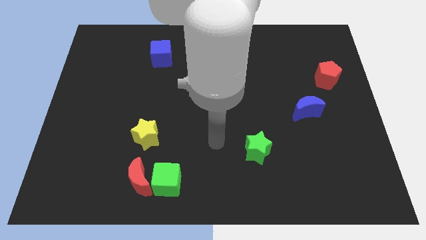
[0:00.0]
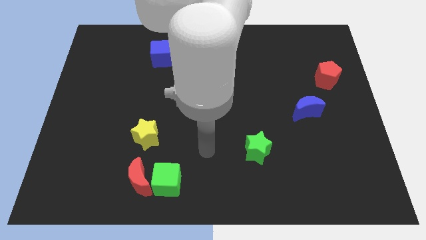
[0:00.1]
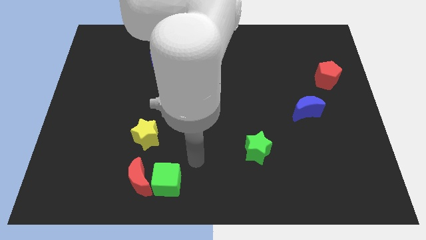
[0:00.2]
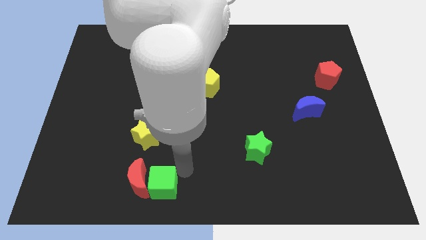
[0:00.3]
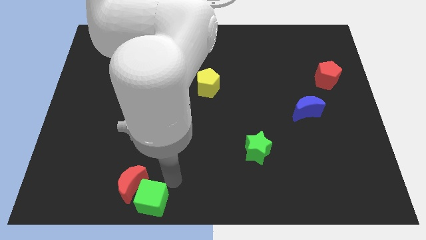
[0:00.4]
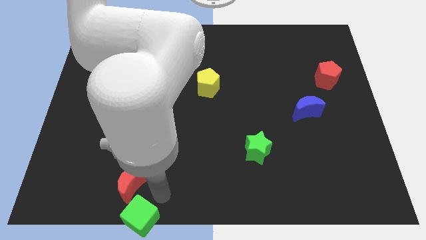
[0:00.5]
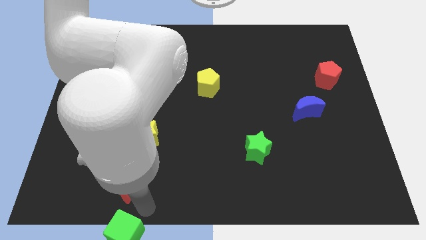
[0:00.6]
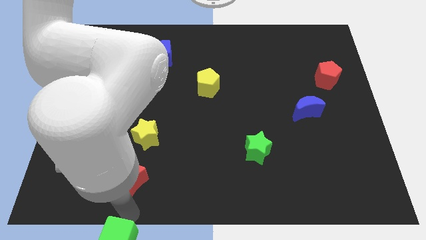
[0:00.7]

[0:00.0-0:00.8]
move the red moon away from the green cube

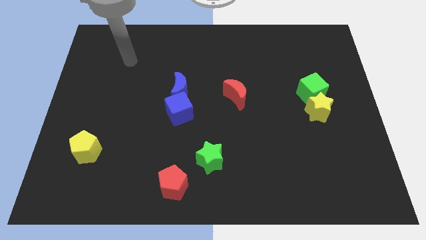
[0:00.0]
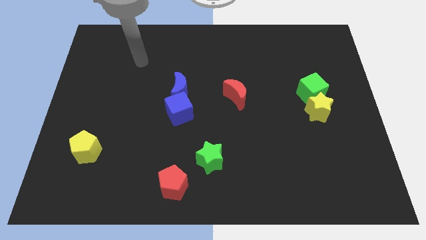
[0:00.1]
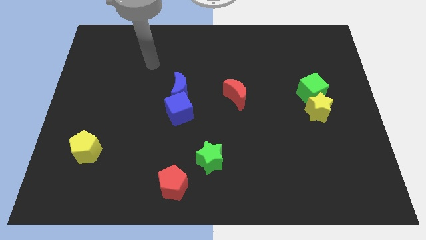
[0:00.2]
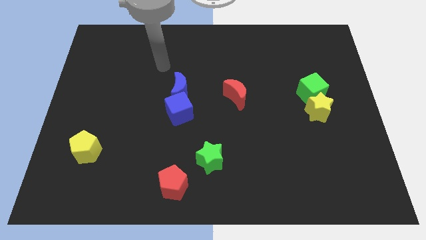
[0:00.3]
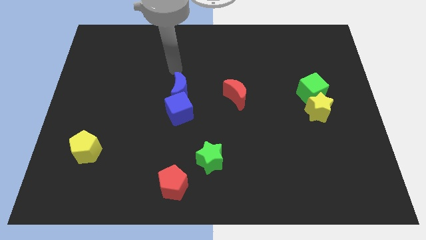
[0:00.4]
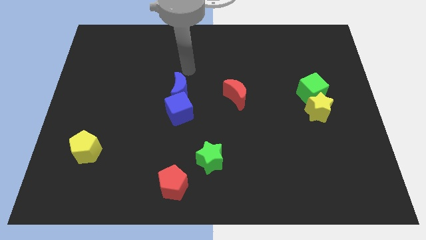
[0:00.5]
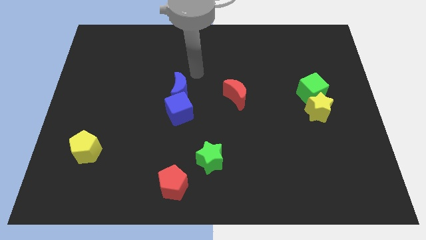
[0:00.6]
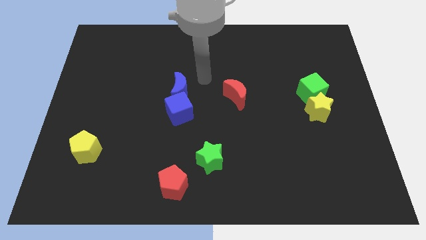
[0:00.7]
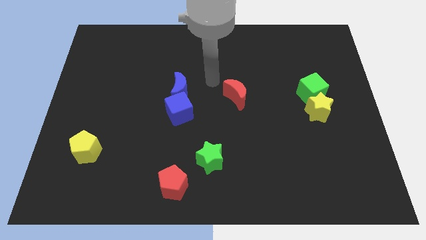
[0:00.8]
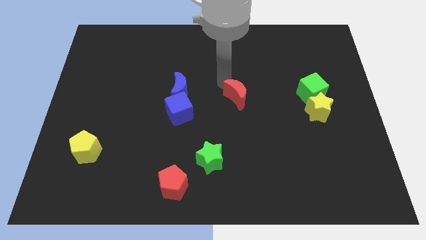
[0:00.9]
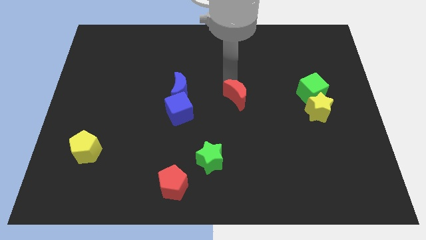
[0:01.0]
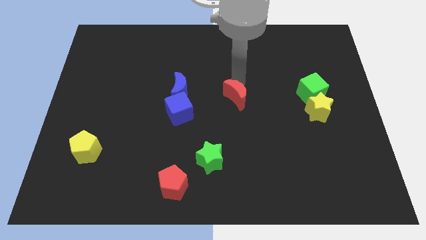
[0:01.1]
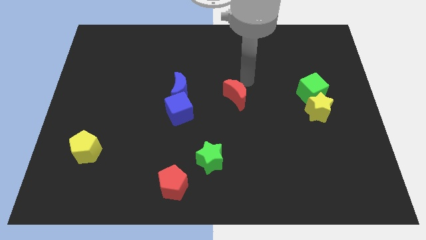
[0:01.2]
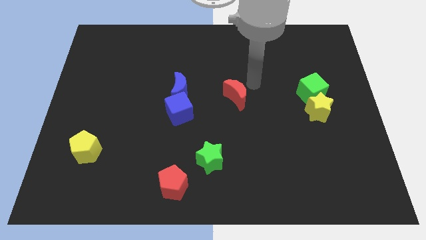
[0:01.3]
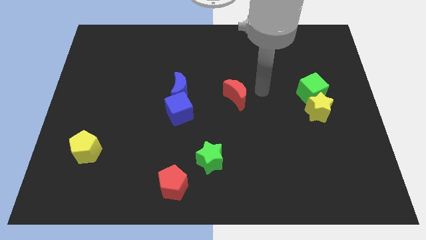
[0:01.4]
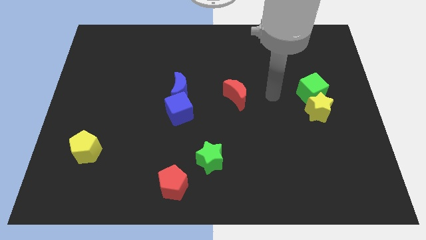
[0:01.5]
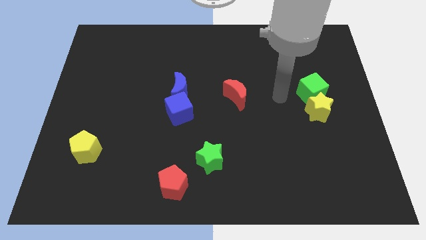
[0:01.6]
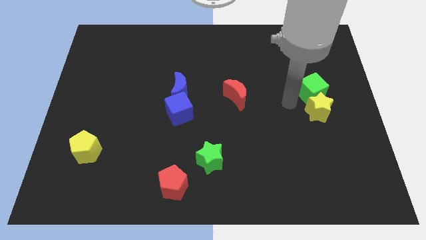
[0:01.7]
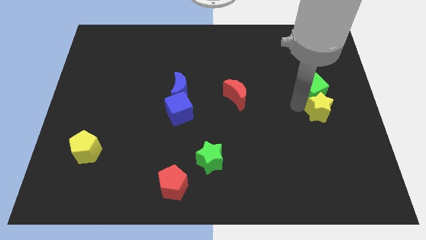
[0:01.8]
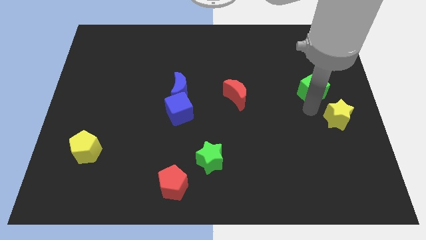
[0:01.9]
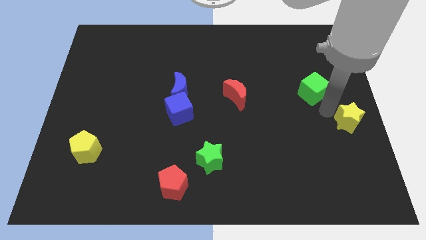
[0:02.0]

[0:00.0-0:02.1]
separate the green cube from the yellow star

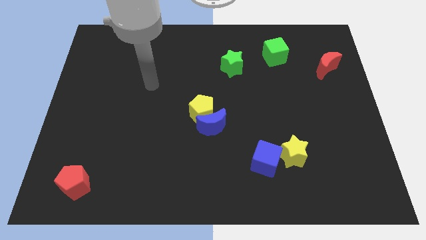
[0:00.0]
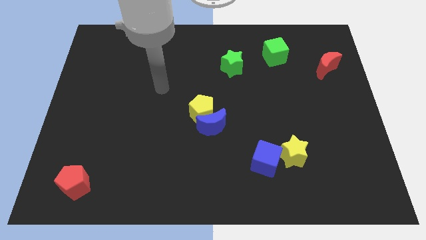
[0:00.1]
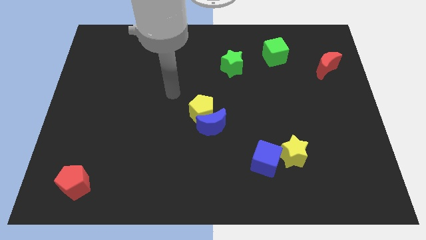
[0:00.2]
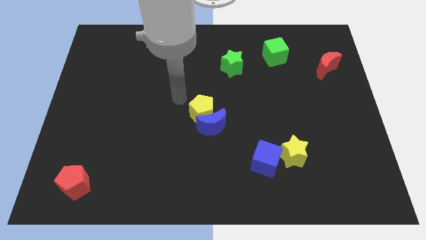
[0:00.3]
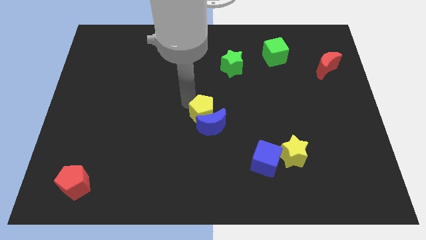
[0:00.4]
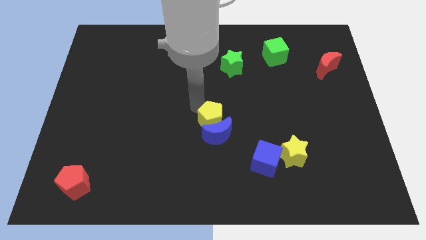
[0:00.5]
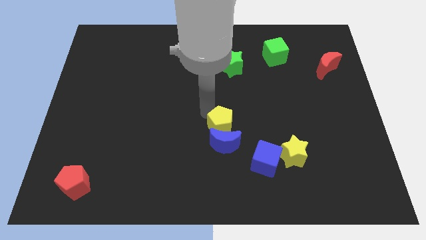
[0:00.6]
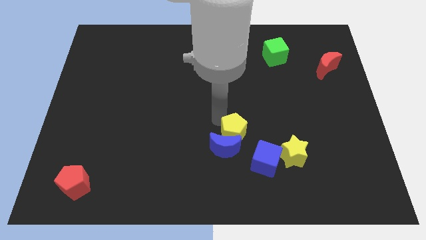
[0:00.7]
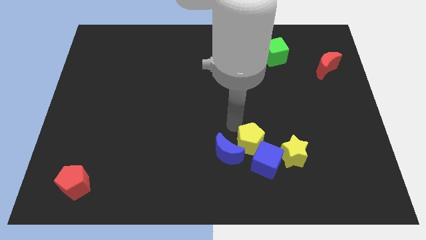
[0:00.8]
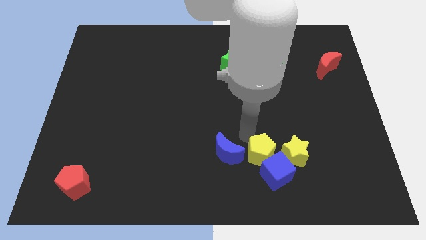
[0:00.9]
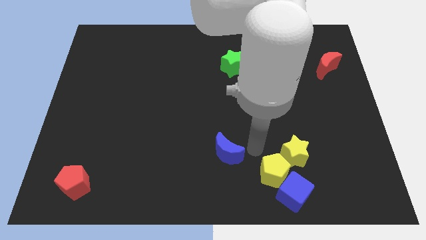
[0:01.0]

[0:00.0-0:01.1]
move the blue moon away from the yellow pentagon

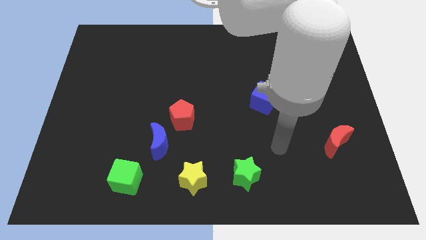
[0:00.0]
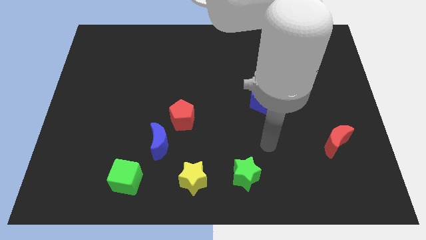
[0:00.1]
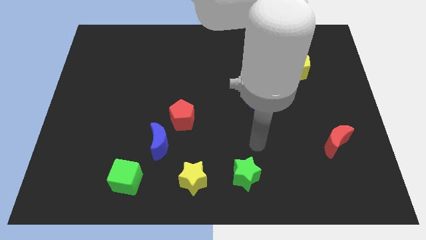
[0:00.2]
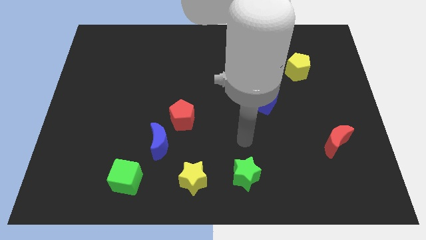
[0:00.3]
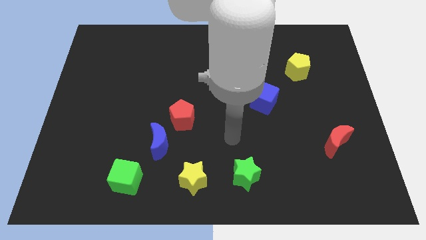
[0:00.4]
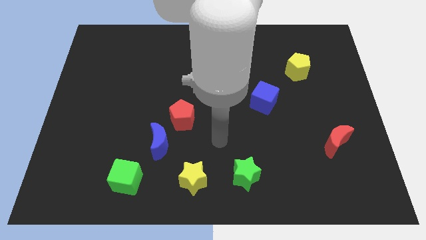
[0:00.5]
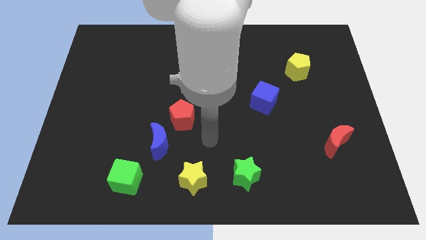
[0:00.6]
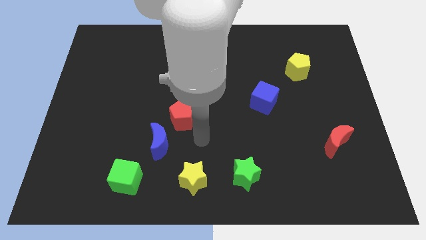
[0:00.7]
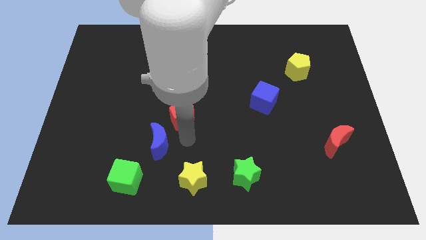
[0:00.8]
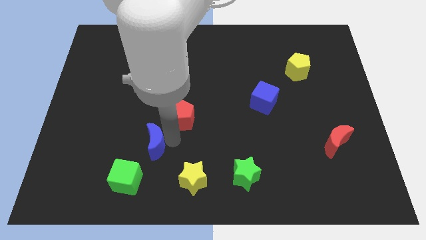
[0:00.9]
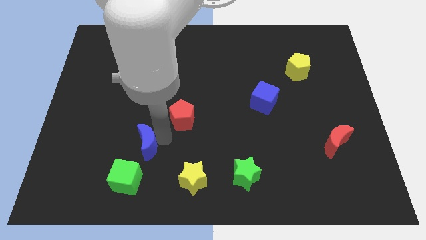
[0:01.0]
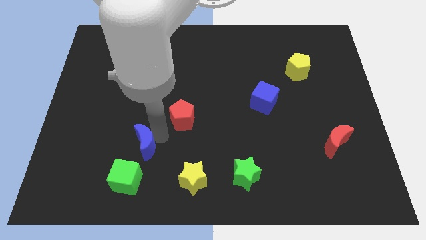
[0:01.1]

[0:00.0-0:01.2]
separate the red pentagon from the blue moon

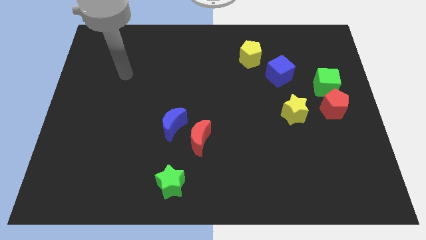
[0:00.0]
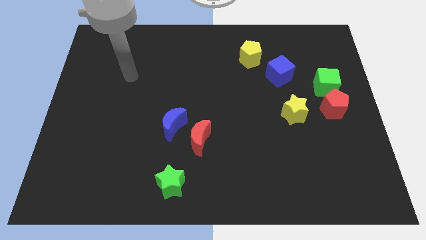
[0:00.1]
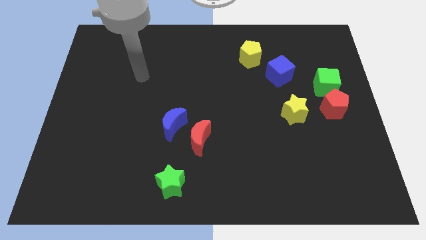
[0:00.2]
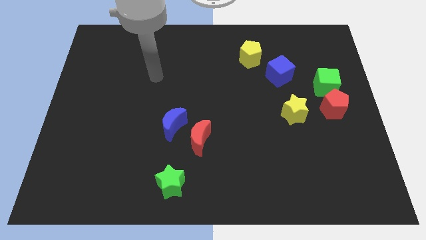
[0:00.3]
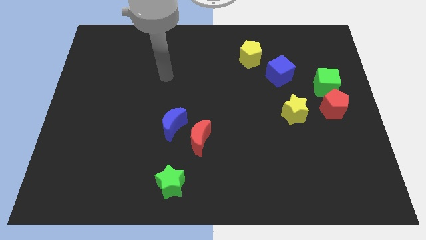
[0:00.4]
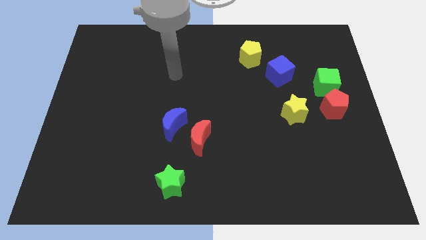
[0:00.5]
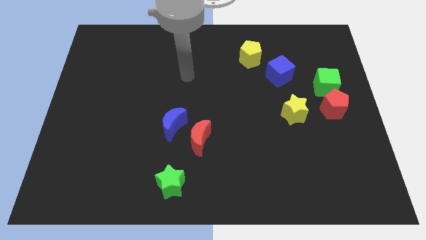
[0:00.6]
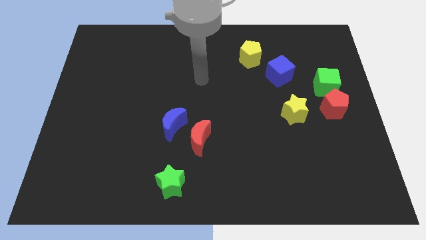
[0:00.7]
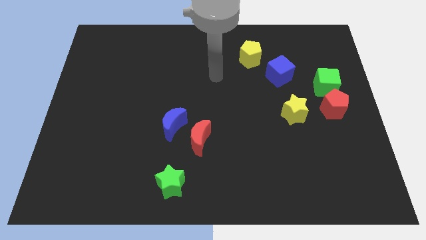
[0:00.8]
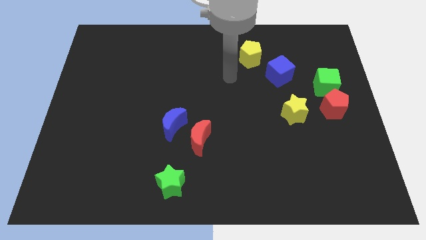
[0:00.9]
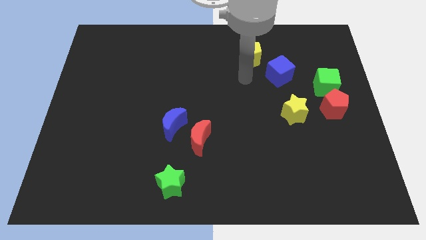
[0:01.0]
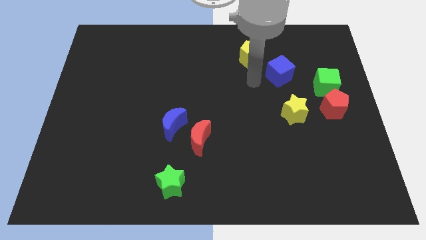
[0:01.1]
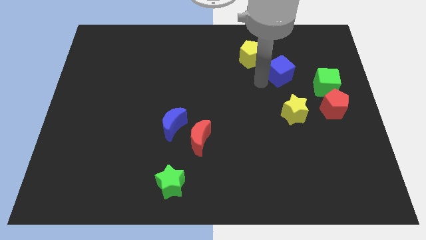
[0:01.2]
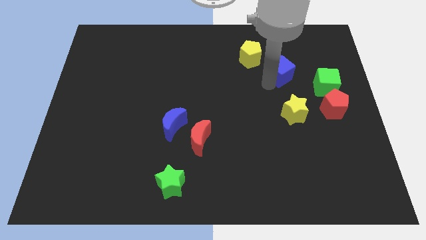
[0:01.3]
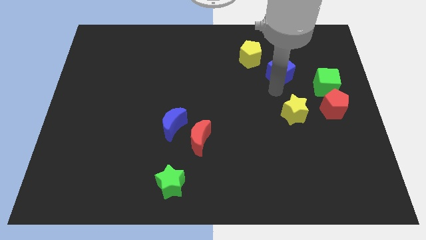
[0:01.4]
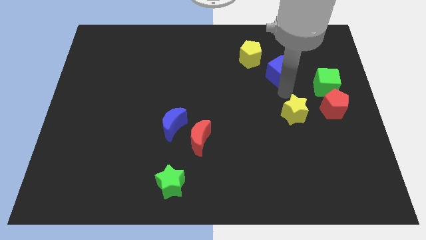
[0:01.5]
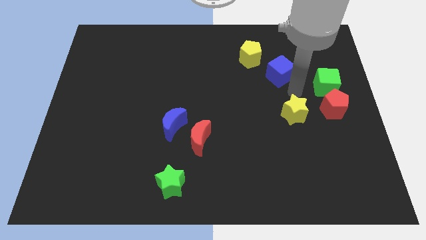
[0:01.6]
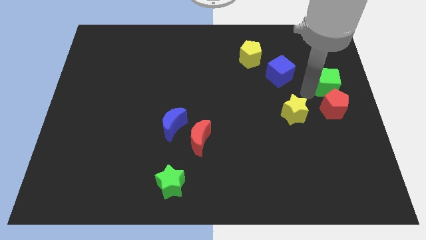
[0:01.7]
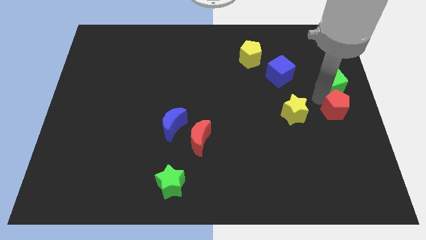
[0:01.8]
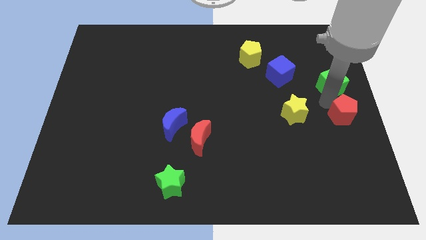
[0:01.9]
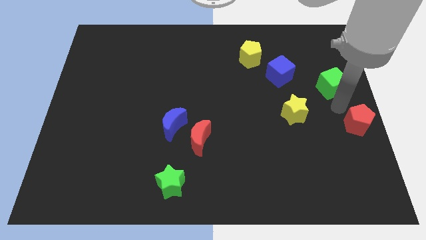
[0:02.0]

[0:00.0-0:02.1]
move the green cube away from the red pentagon

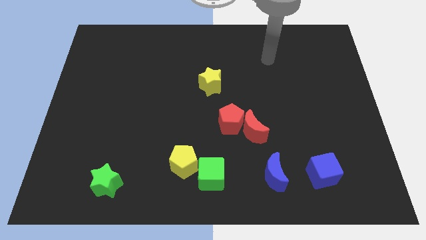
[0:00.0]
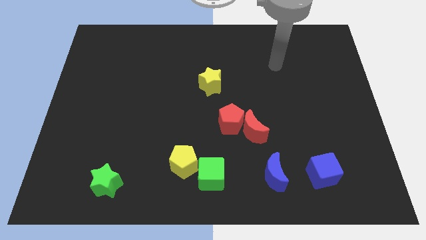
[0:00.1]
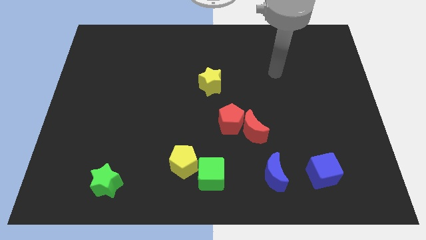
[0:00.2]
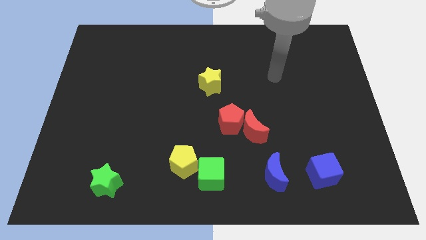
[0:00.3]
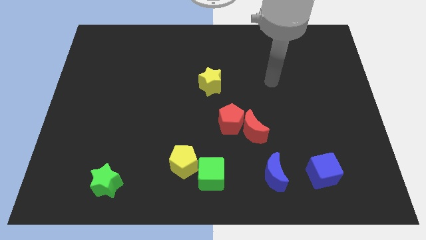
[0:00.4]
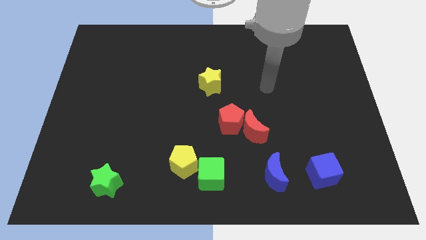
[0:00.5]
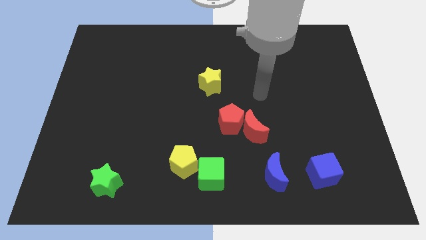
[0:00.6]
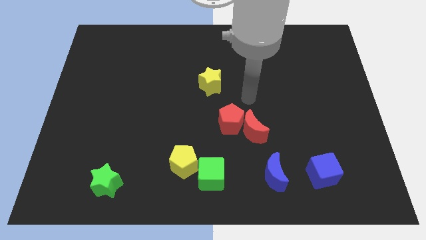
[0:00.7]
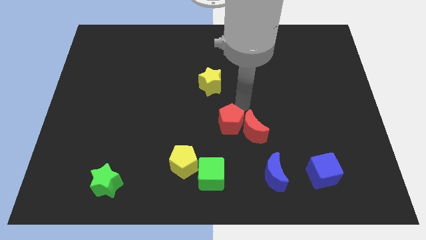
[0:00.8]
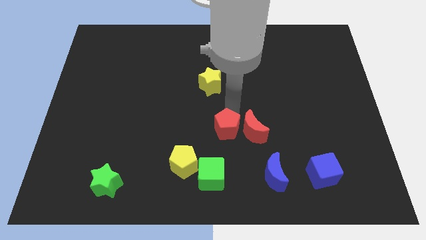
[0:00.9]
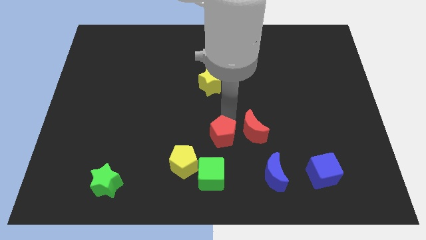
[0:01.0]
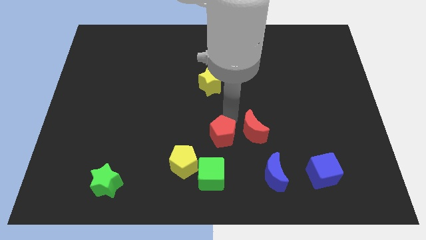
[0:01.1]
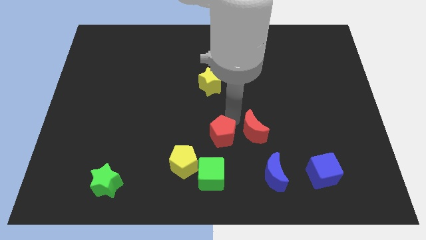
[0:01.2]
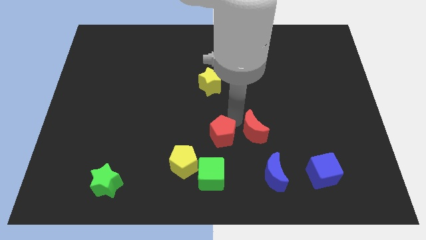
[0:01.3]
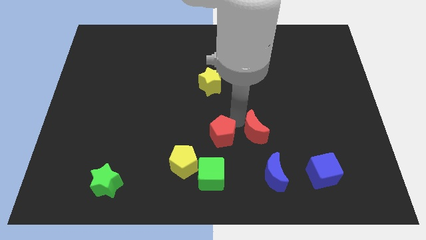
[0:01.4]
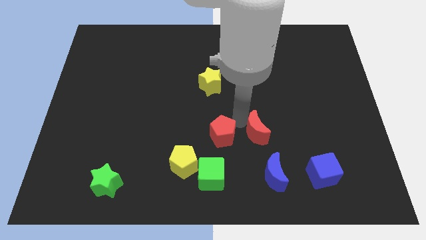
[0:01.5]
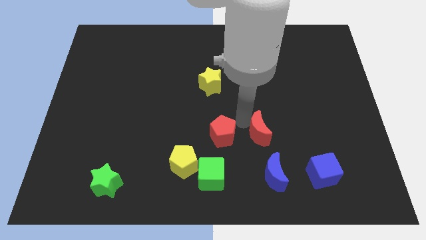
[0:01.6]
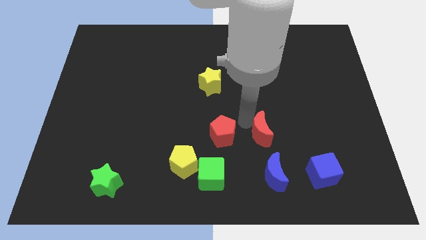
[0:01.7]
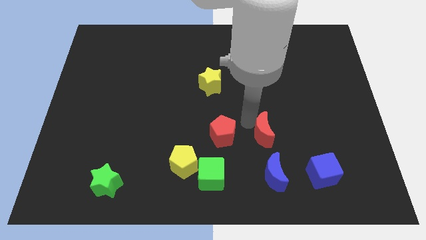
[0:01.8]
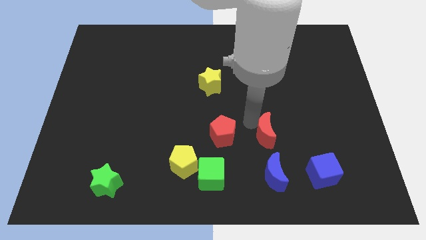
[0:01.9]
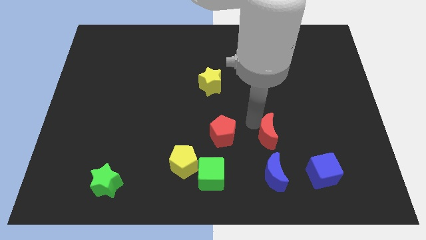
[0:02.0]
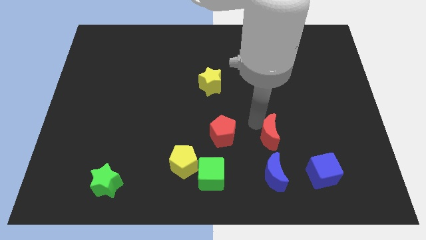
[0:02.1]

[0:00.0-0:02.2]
pull the red moon apart from the red pentagon
